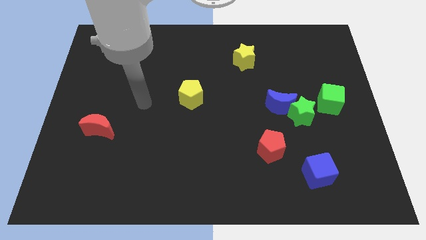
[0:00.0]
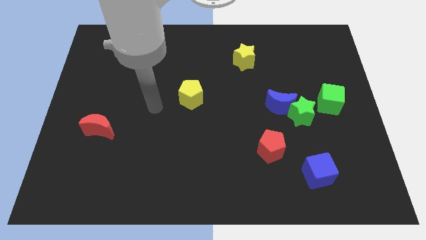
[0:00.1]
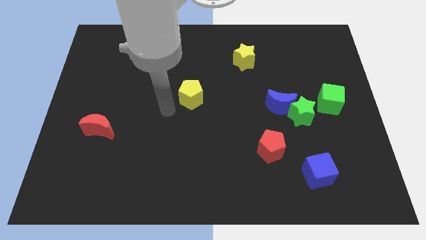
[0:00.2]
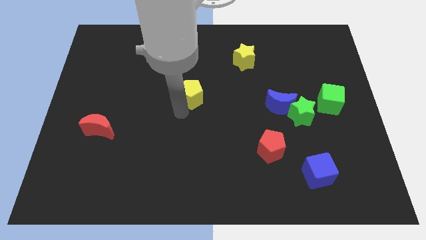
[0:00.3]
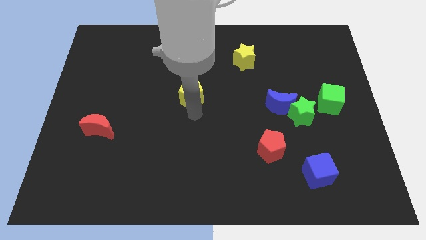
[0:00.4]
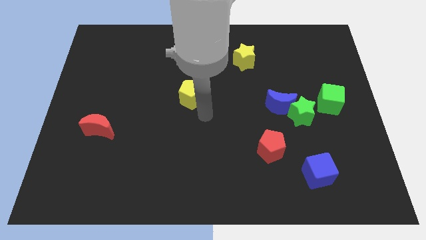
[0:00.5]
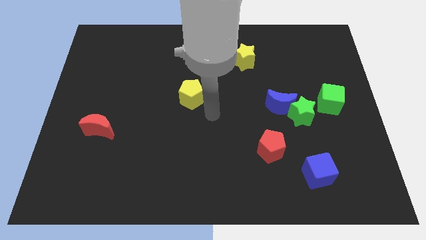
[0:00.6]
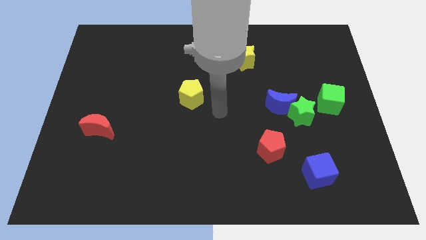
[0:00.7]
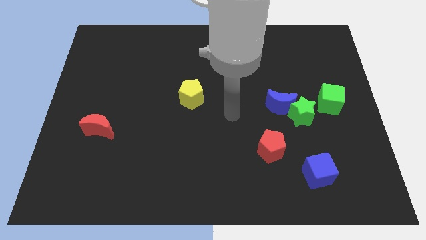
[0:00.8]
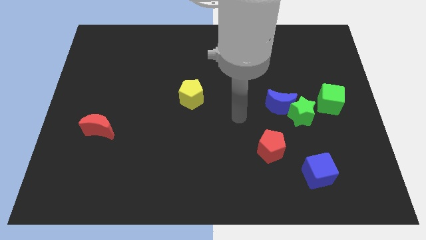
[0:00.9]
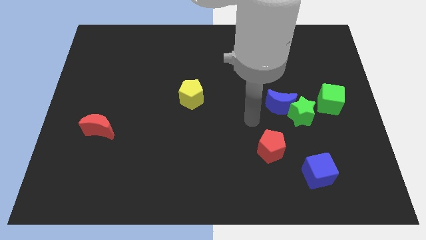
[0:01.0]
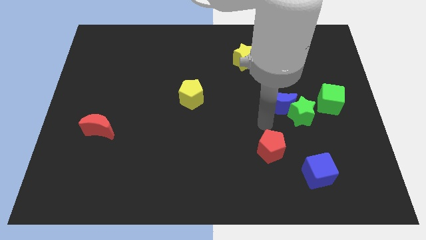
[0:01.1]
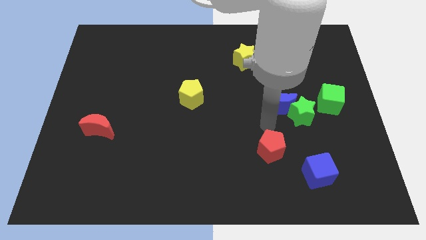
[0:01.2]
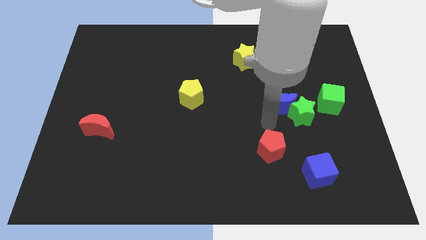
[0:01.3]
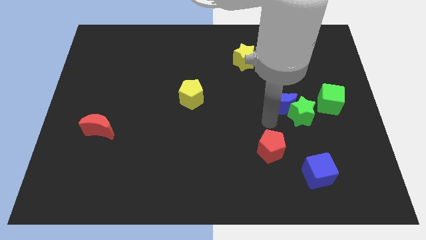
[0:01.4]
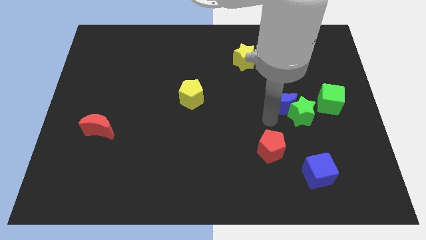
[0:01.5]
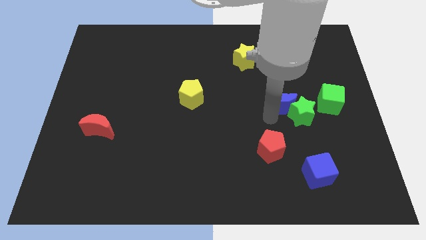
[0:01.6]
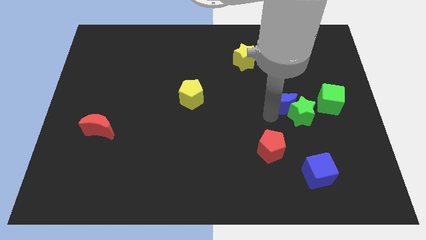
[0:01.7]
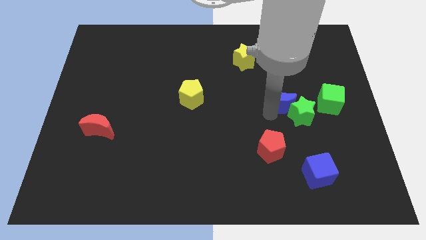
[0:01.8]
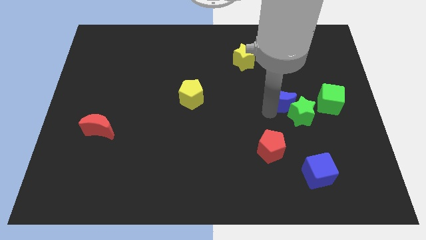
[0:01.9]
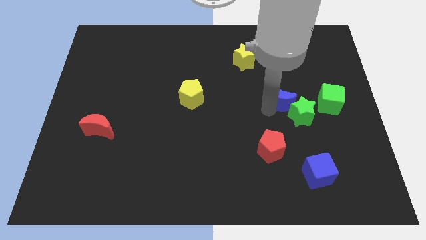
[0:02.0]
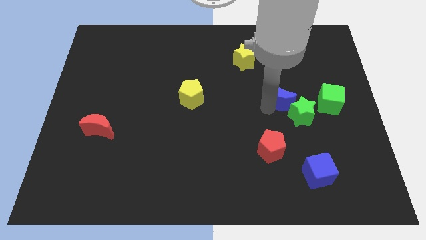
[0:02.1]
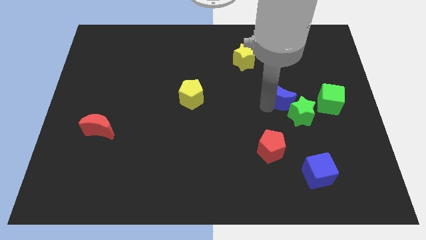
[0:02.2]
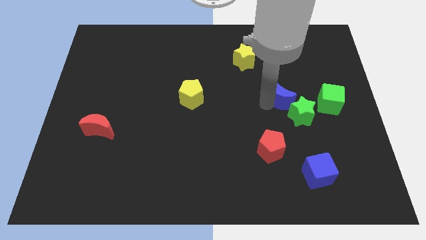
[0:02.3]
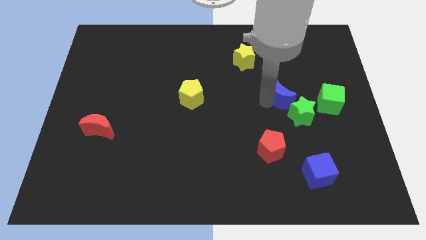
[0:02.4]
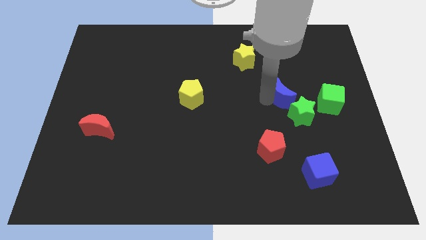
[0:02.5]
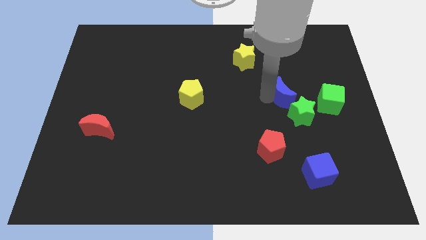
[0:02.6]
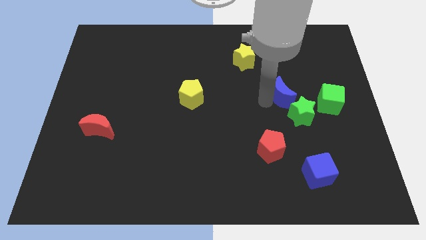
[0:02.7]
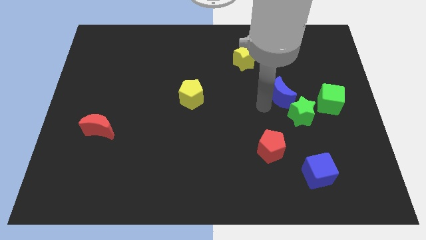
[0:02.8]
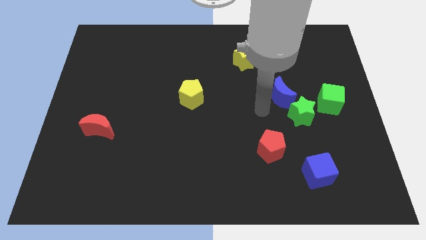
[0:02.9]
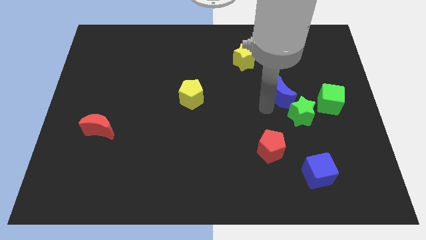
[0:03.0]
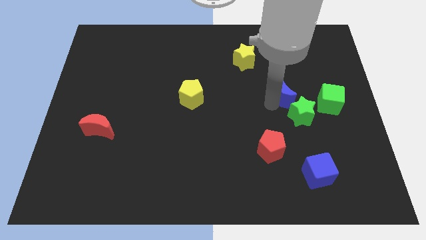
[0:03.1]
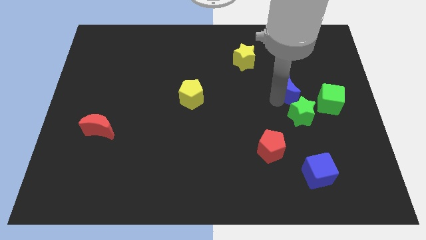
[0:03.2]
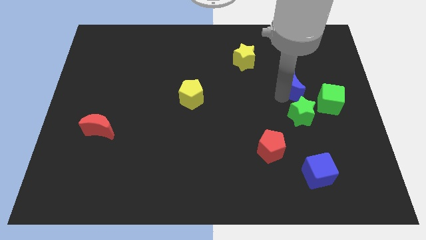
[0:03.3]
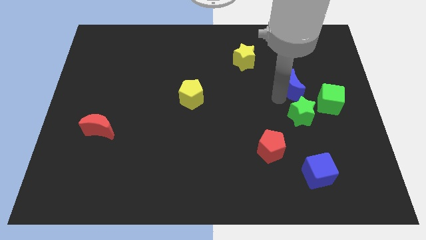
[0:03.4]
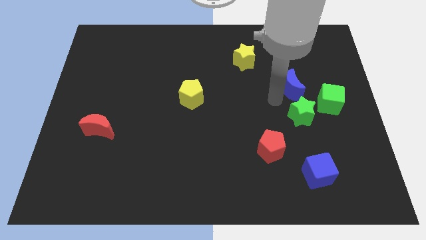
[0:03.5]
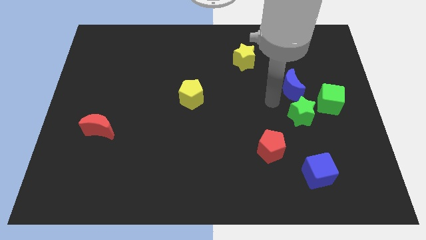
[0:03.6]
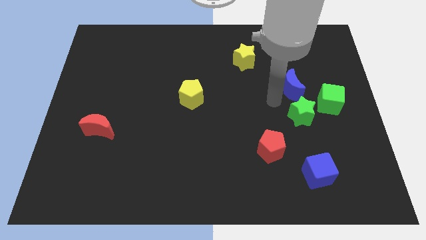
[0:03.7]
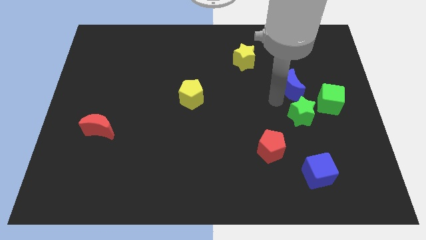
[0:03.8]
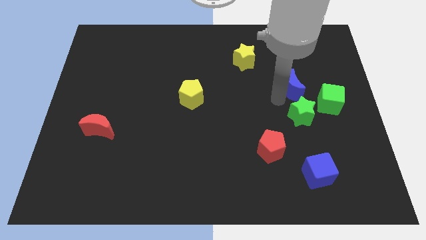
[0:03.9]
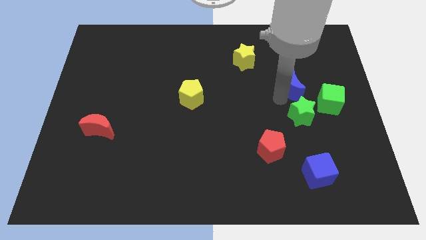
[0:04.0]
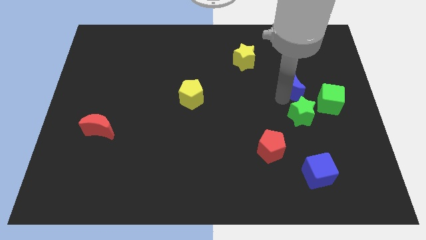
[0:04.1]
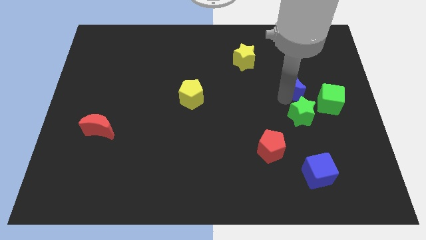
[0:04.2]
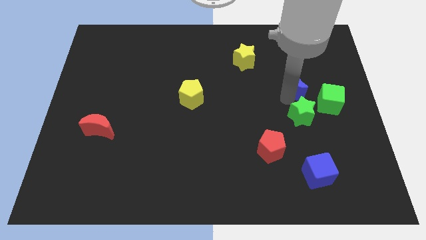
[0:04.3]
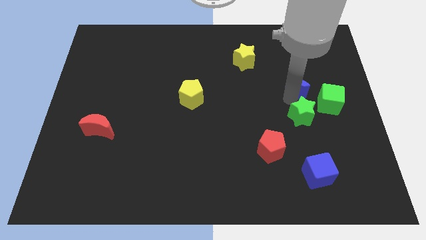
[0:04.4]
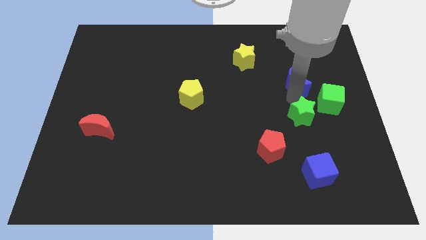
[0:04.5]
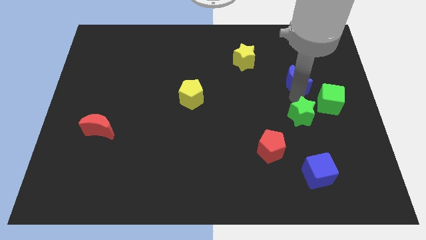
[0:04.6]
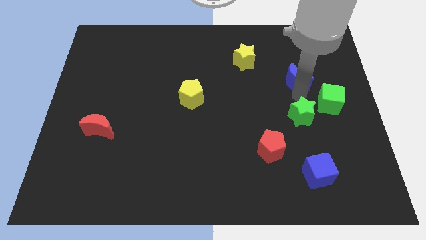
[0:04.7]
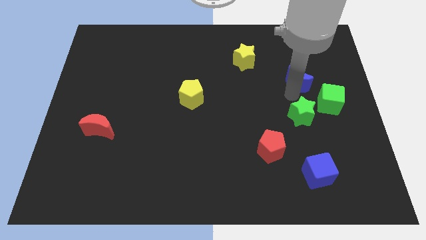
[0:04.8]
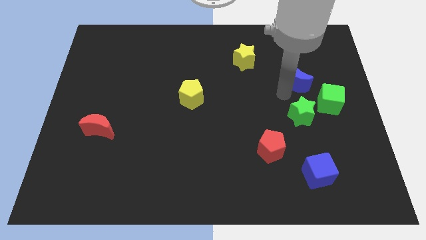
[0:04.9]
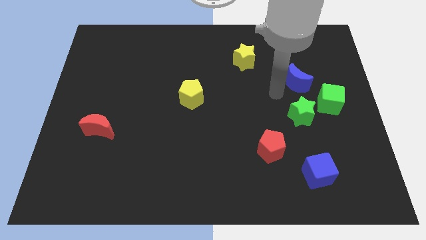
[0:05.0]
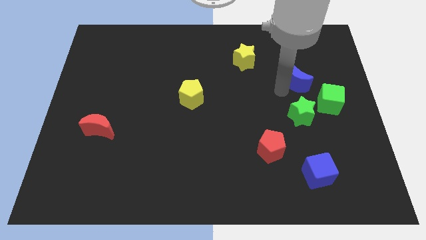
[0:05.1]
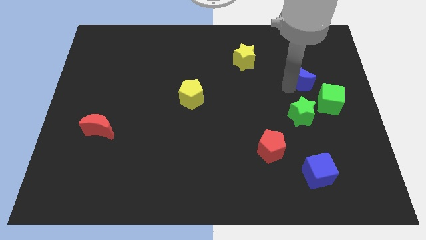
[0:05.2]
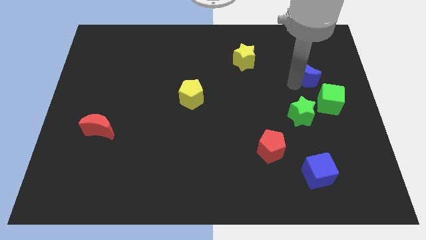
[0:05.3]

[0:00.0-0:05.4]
push the blue moon to the top side of the green cube

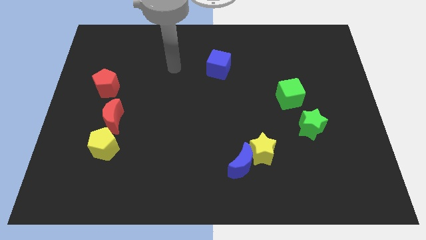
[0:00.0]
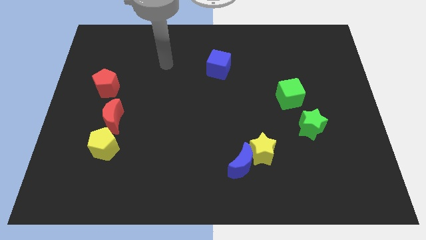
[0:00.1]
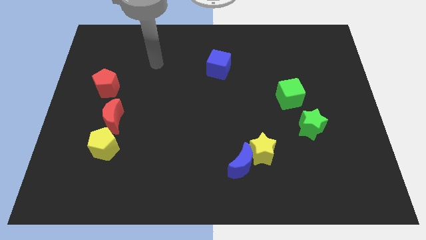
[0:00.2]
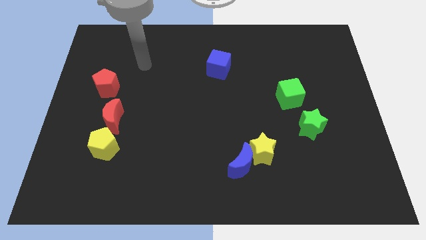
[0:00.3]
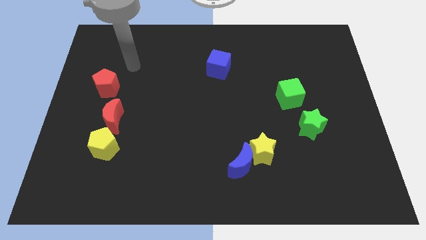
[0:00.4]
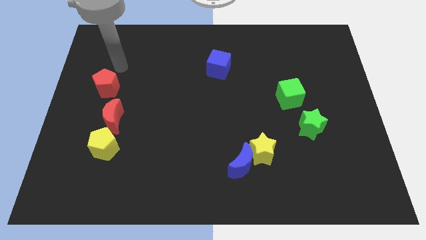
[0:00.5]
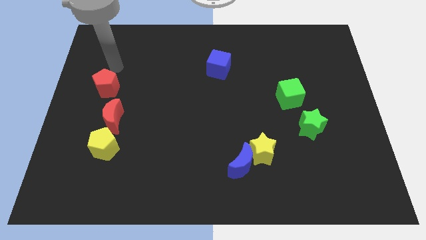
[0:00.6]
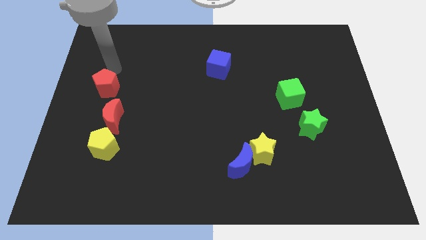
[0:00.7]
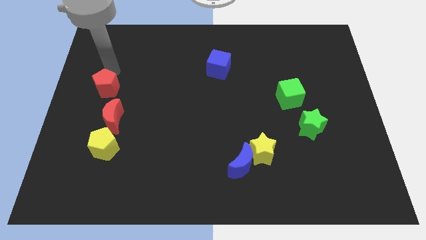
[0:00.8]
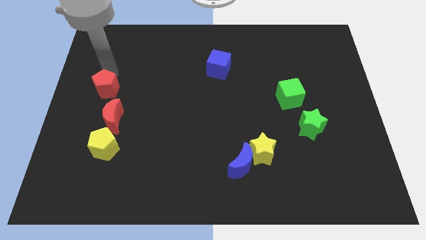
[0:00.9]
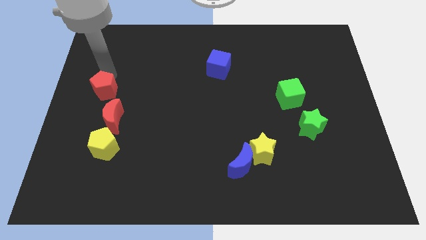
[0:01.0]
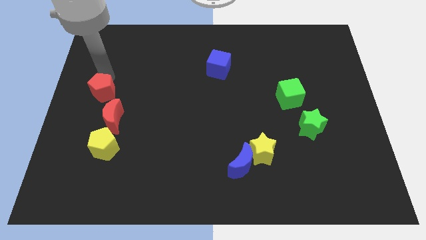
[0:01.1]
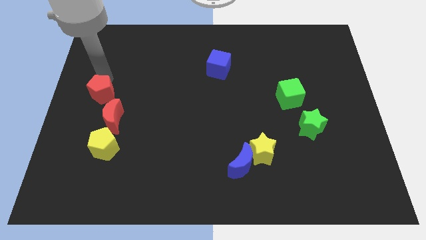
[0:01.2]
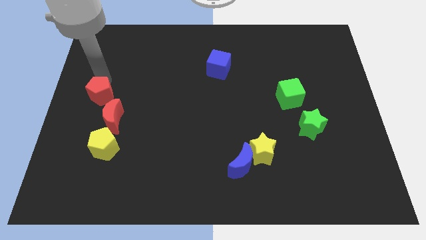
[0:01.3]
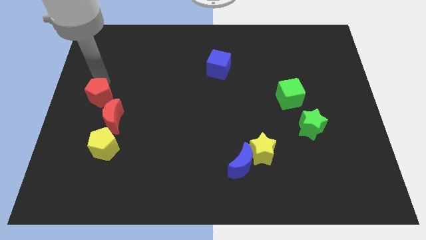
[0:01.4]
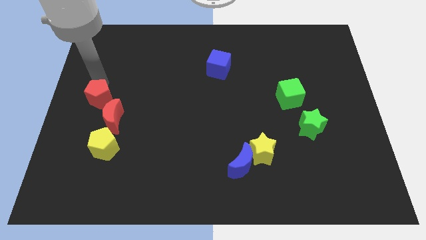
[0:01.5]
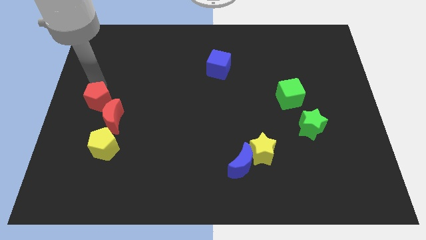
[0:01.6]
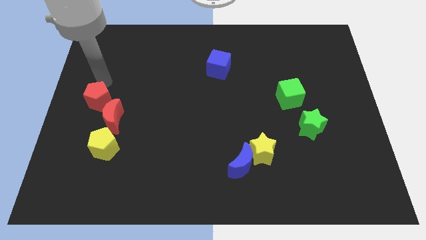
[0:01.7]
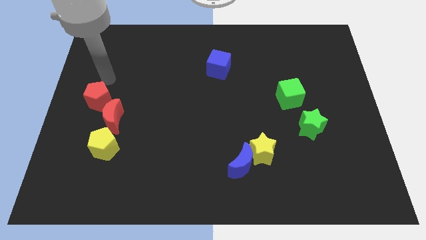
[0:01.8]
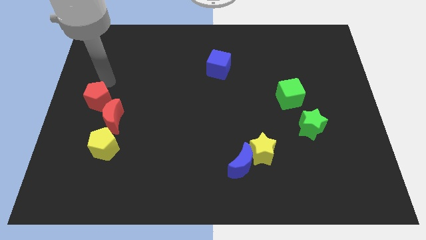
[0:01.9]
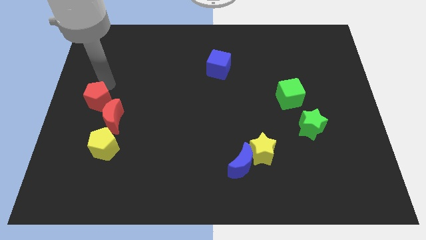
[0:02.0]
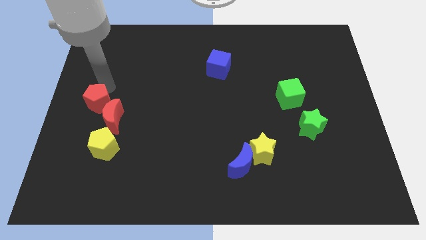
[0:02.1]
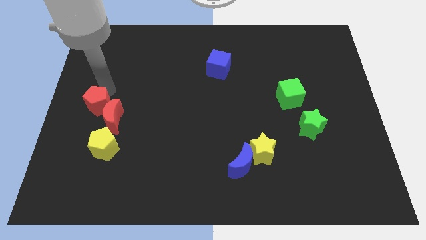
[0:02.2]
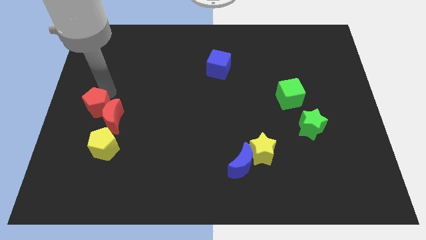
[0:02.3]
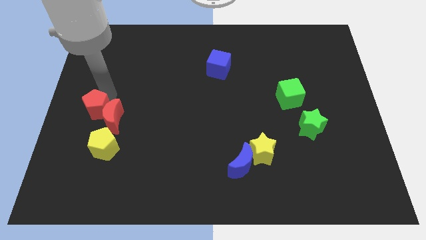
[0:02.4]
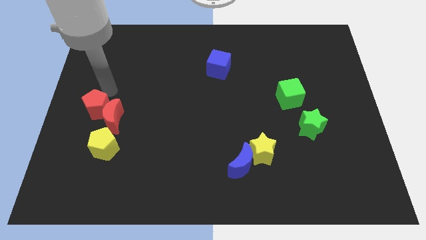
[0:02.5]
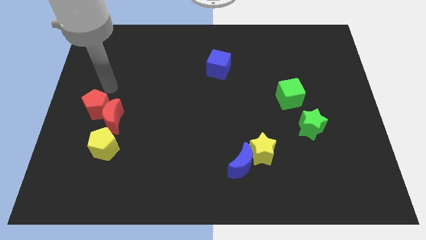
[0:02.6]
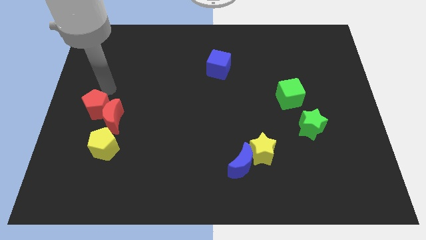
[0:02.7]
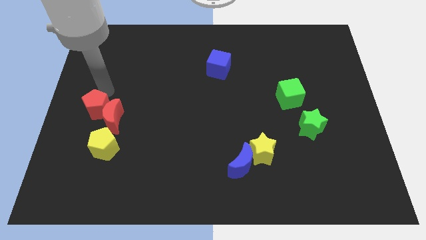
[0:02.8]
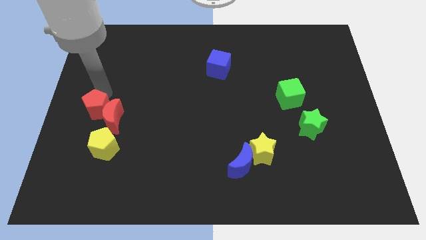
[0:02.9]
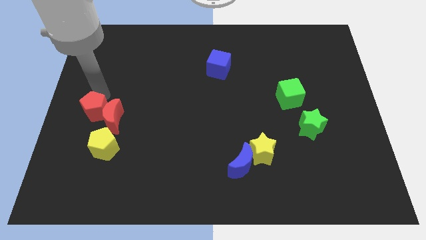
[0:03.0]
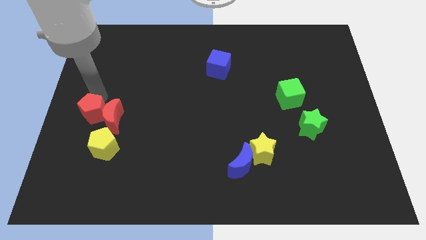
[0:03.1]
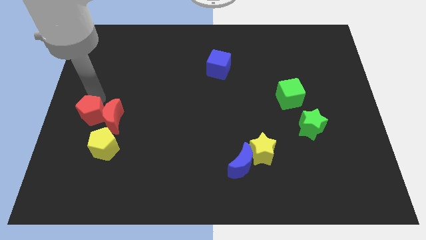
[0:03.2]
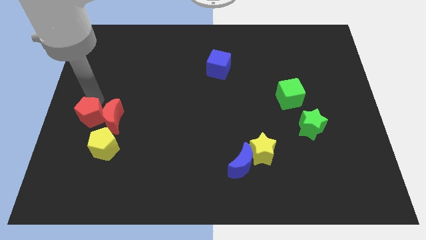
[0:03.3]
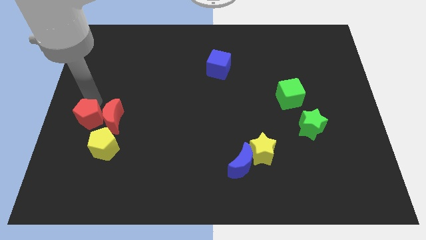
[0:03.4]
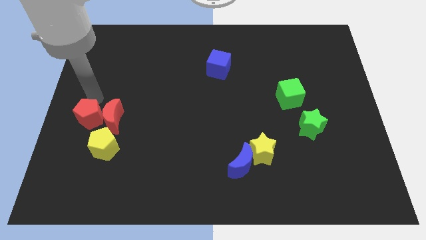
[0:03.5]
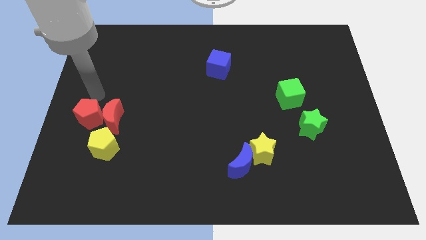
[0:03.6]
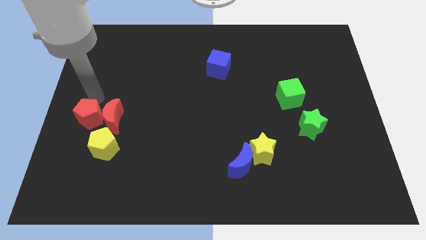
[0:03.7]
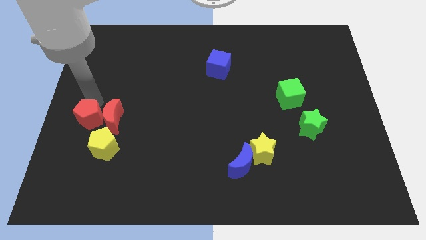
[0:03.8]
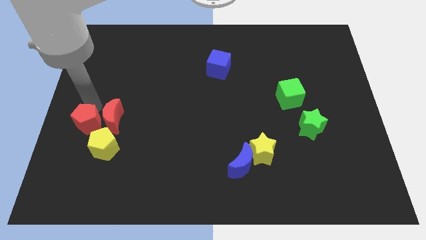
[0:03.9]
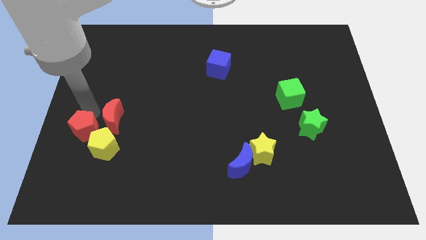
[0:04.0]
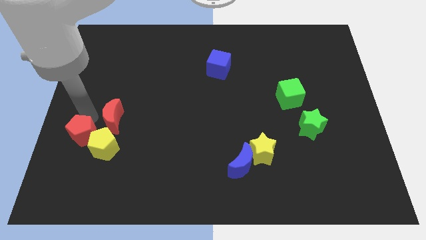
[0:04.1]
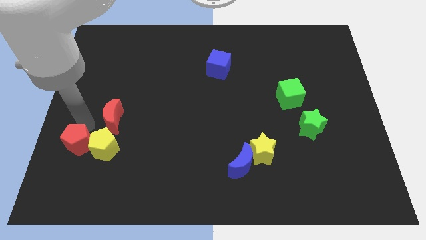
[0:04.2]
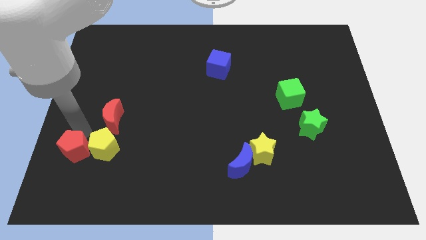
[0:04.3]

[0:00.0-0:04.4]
slide the red pentagon to the bottom left of the yellow pentagon
